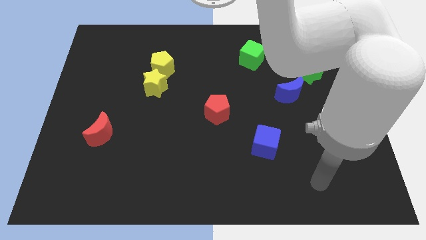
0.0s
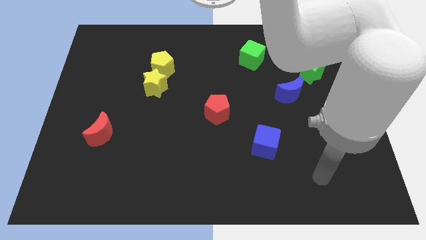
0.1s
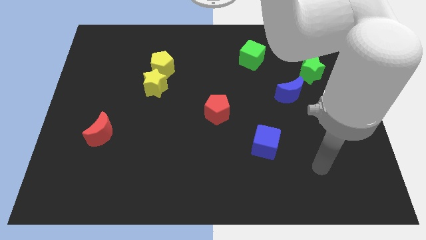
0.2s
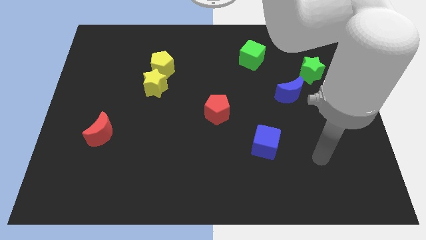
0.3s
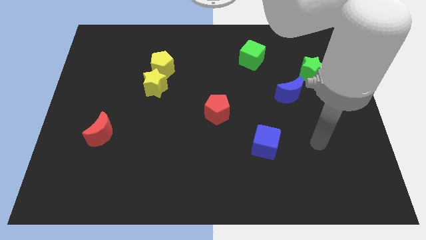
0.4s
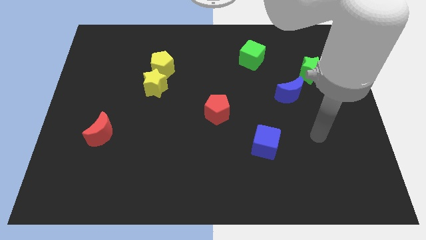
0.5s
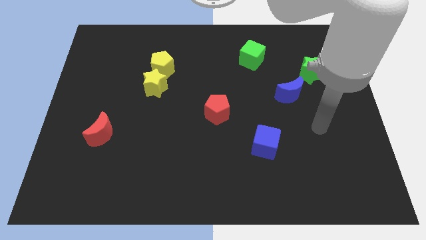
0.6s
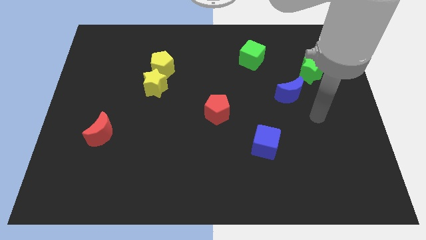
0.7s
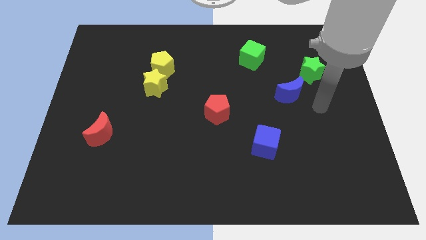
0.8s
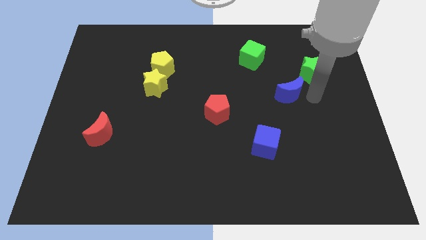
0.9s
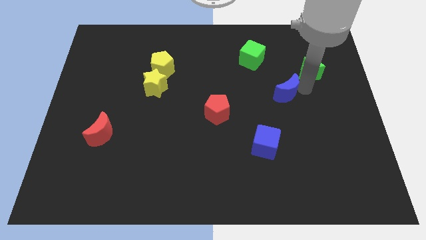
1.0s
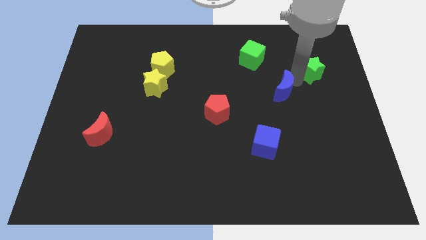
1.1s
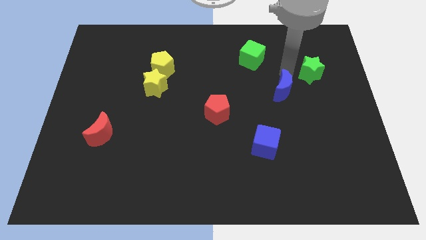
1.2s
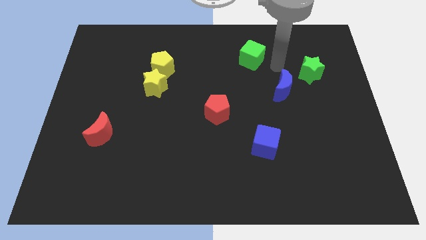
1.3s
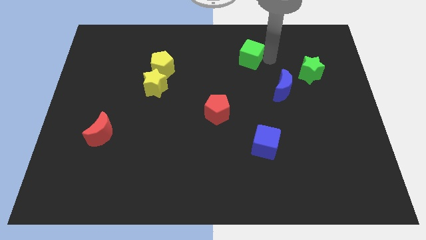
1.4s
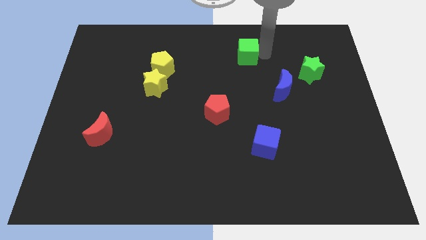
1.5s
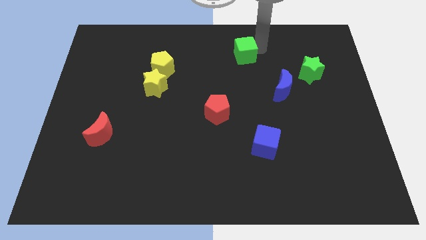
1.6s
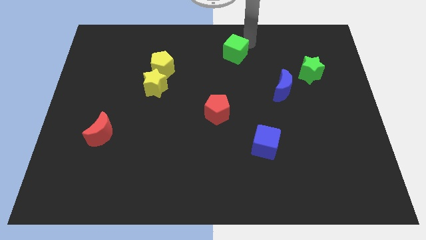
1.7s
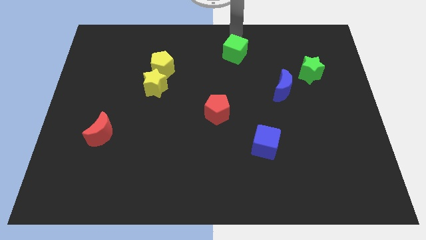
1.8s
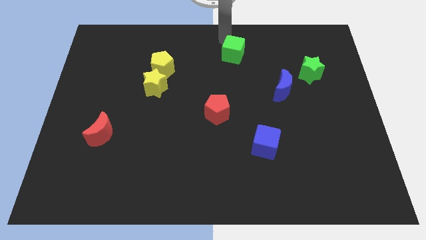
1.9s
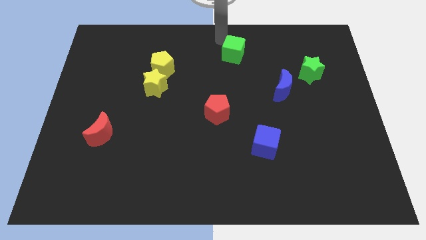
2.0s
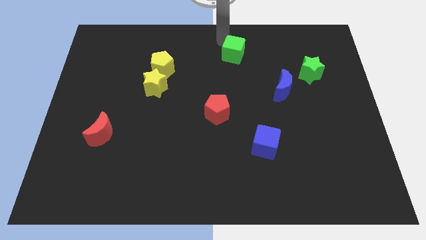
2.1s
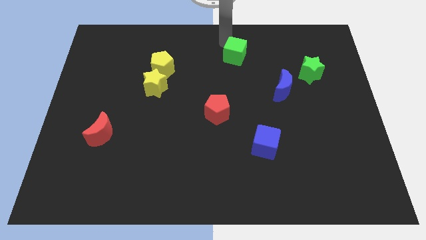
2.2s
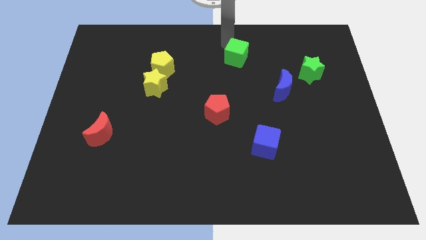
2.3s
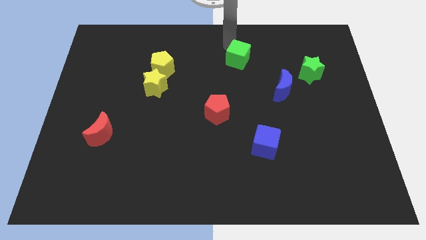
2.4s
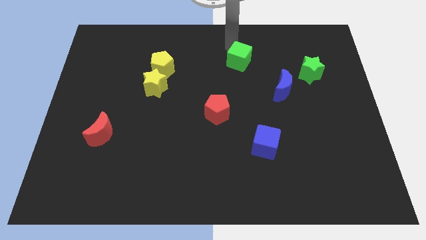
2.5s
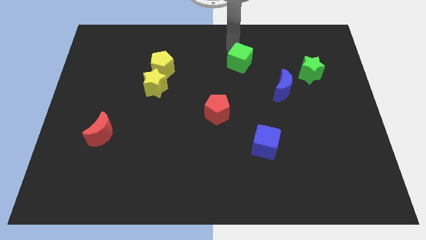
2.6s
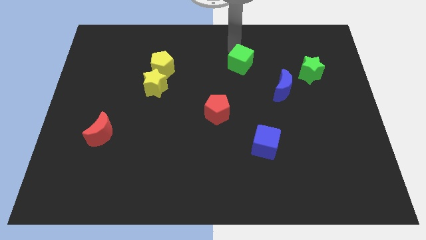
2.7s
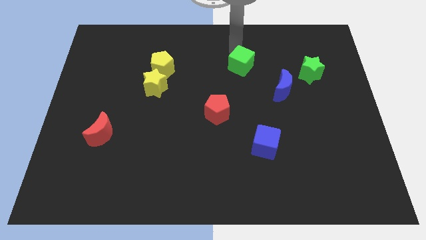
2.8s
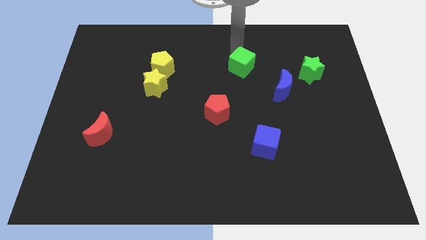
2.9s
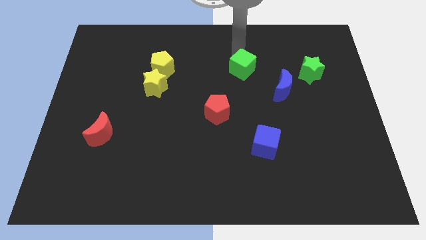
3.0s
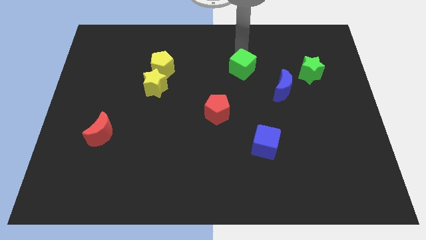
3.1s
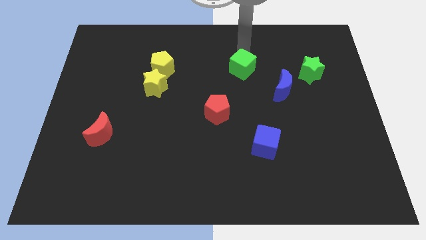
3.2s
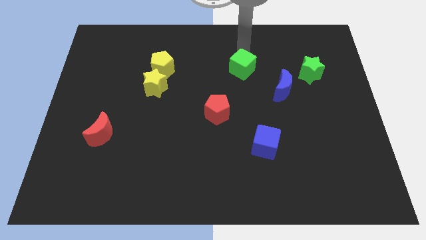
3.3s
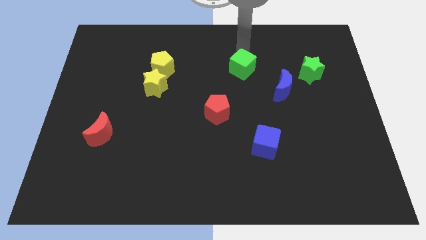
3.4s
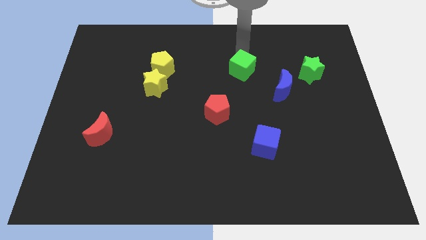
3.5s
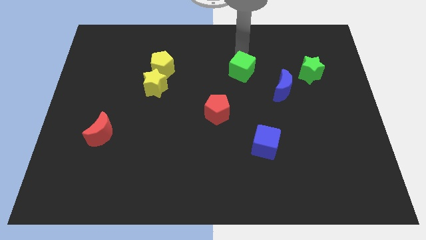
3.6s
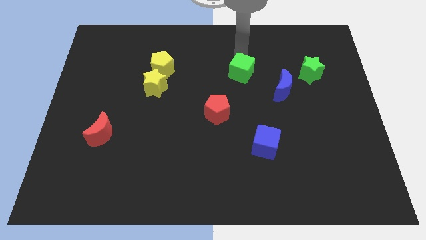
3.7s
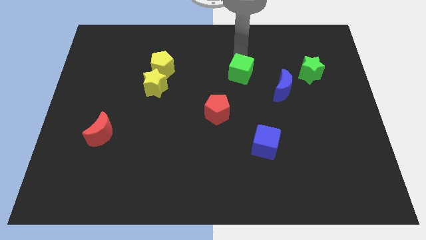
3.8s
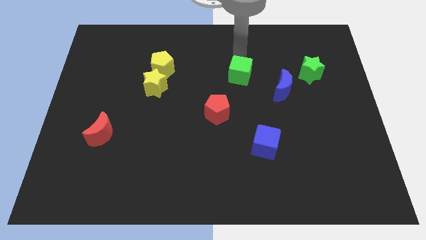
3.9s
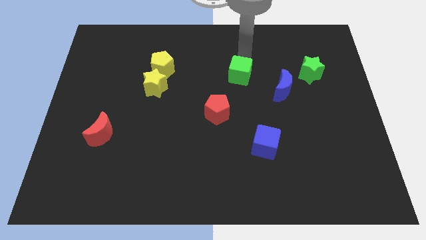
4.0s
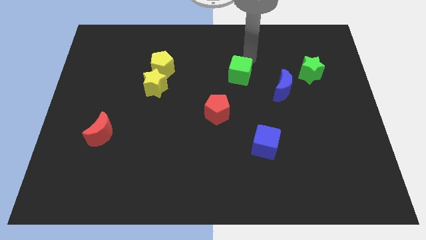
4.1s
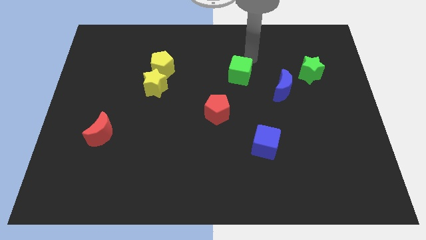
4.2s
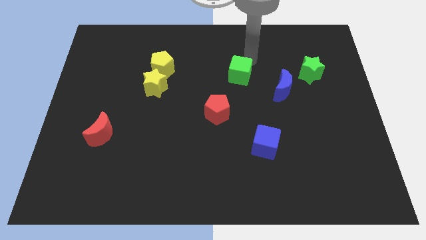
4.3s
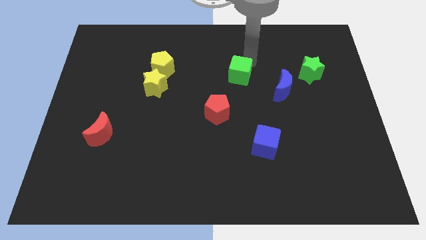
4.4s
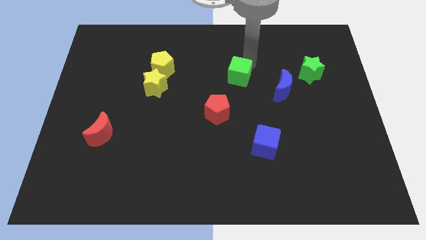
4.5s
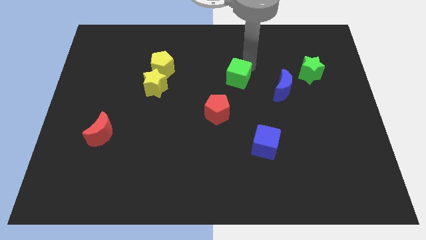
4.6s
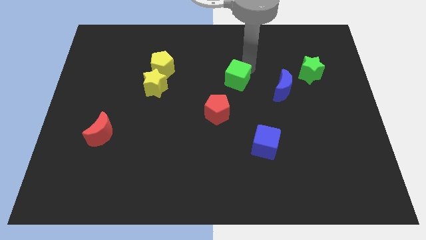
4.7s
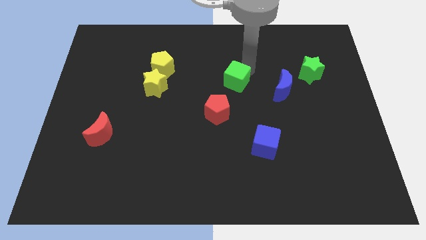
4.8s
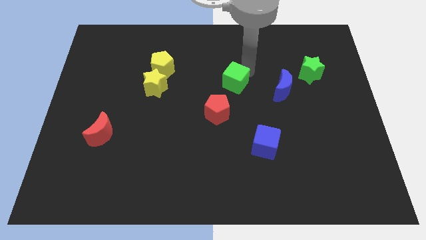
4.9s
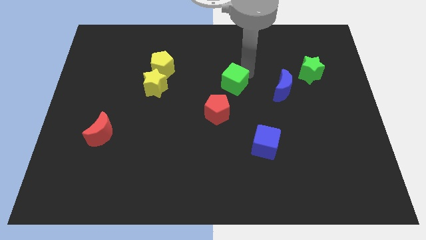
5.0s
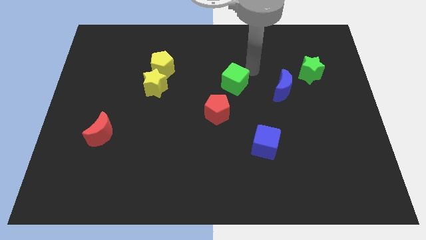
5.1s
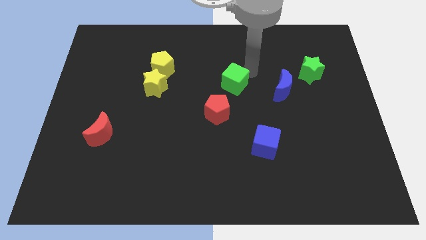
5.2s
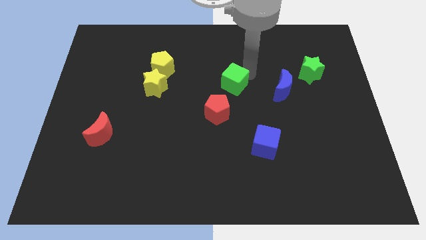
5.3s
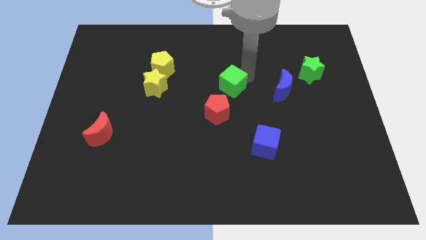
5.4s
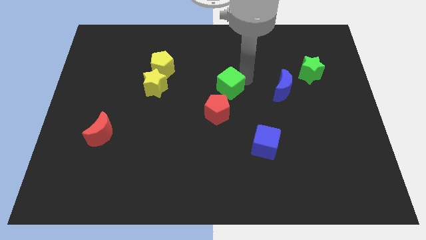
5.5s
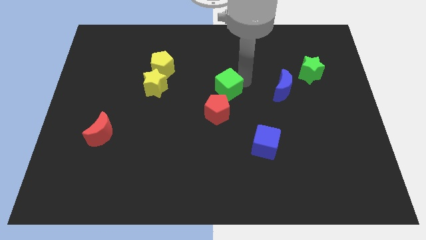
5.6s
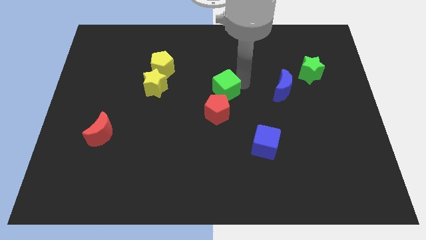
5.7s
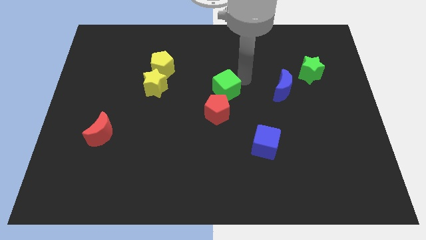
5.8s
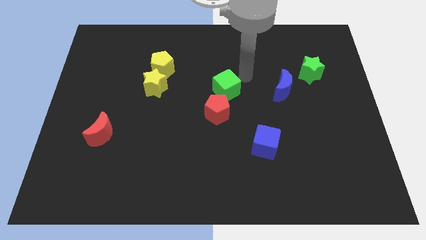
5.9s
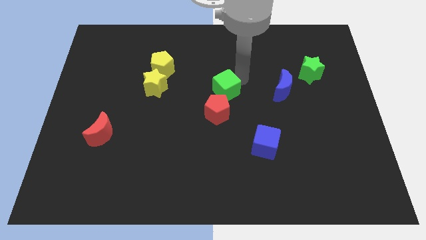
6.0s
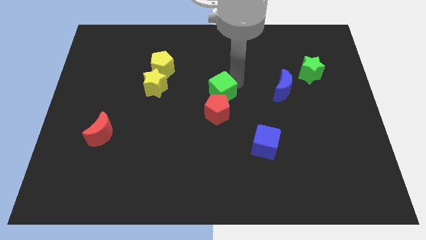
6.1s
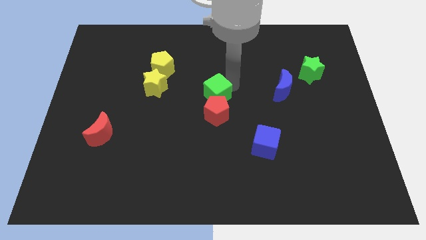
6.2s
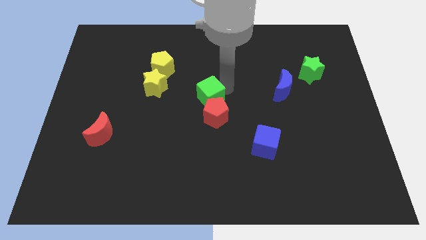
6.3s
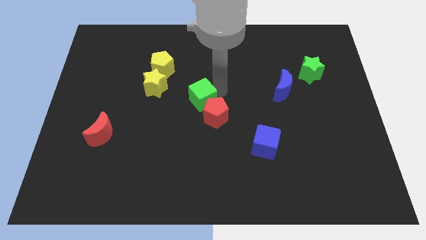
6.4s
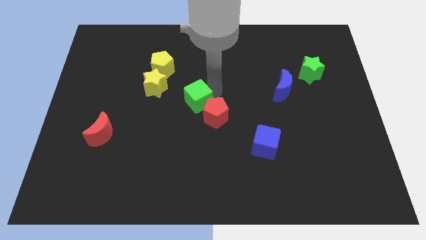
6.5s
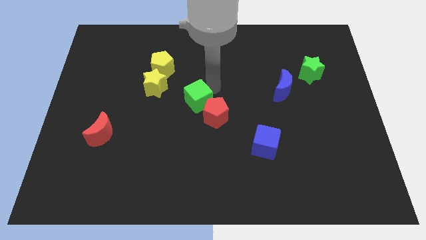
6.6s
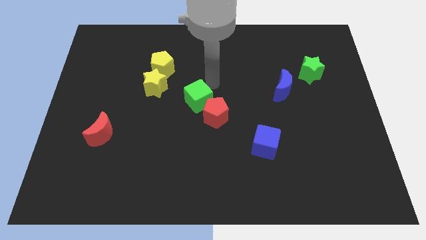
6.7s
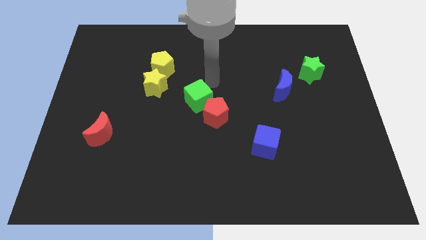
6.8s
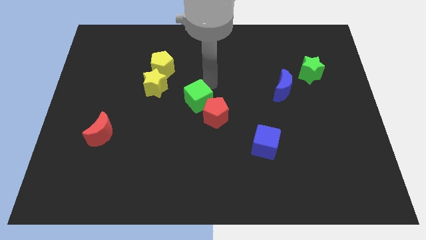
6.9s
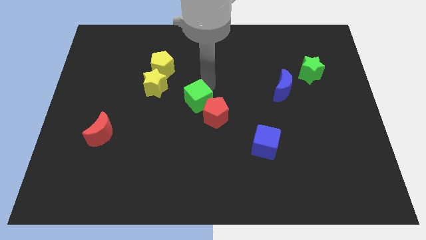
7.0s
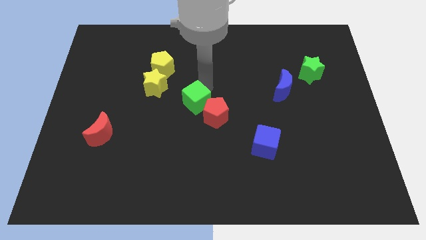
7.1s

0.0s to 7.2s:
move the green cube down and left diagonally

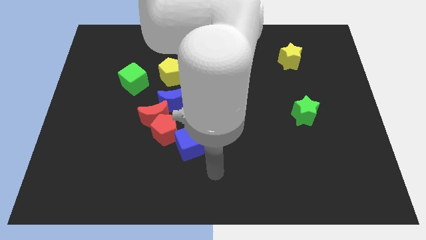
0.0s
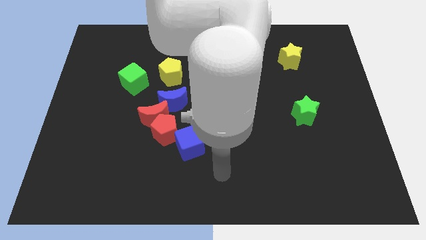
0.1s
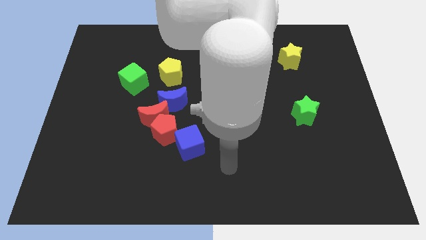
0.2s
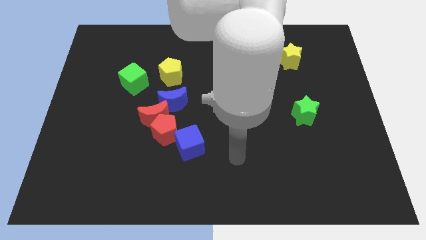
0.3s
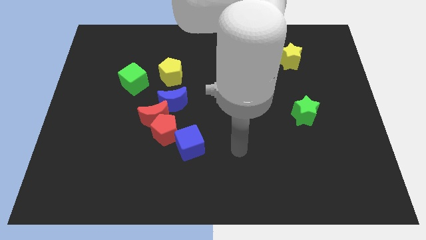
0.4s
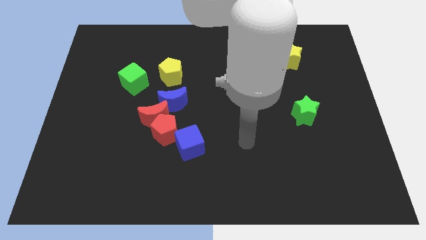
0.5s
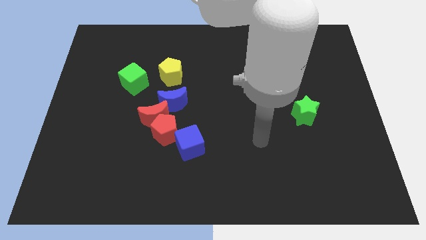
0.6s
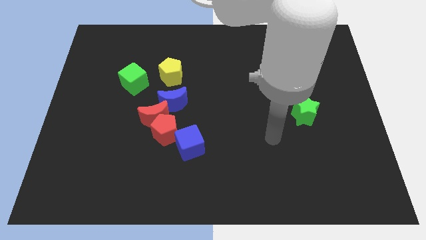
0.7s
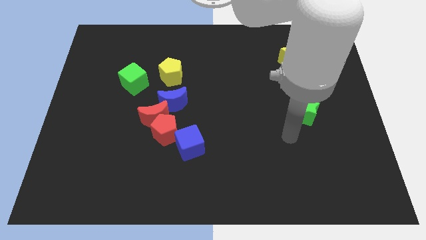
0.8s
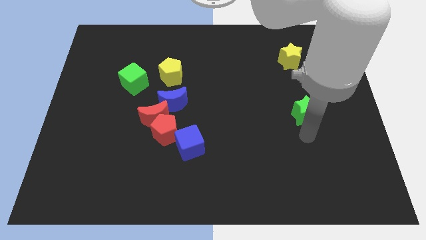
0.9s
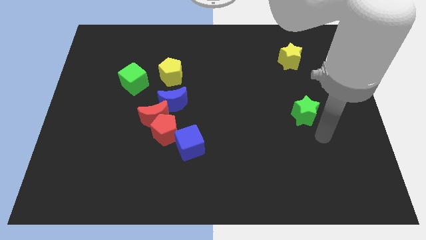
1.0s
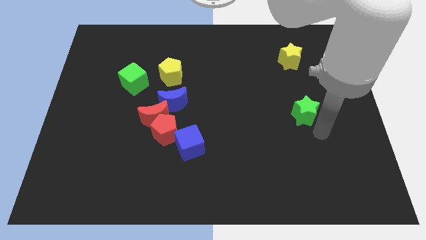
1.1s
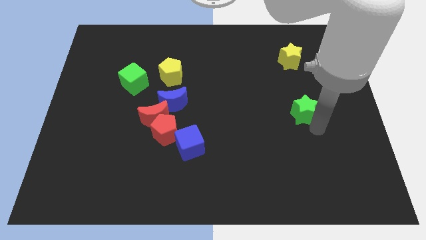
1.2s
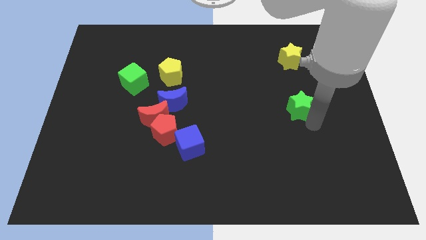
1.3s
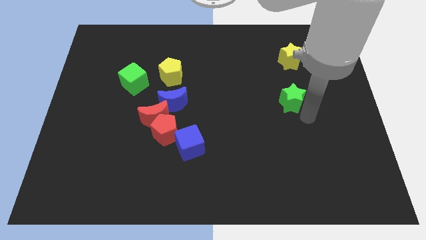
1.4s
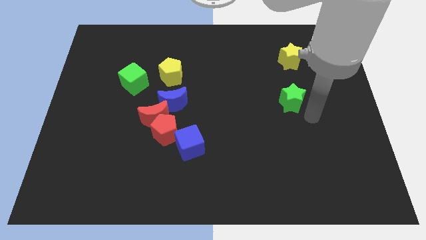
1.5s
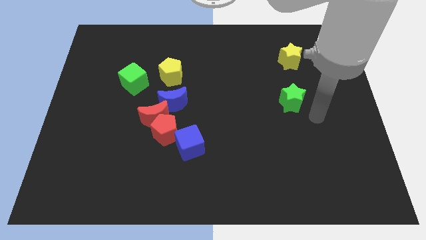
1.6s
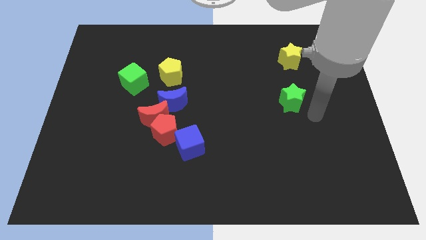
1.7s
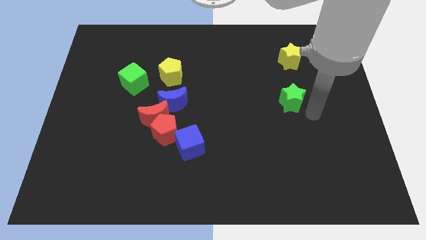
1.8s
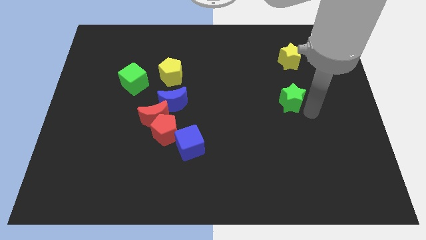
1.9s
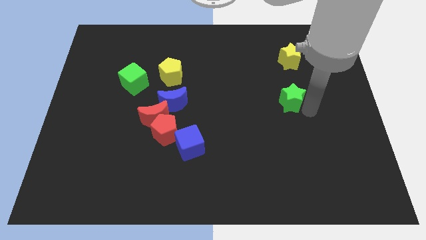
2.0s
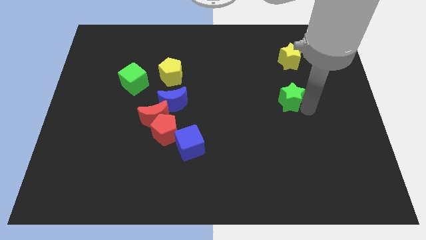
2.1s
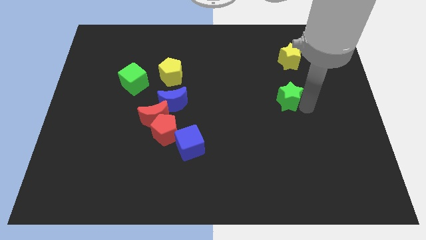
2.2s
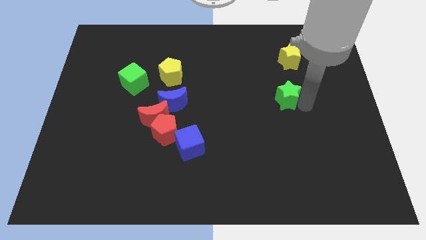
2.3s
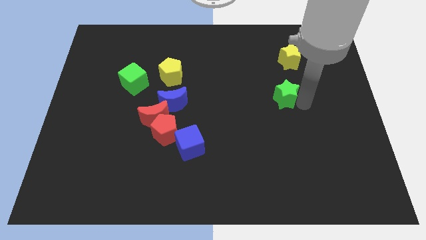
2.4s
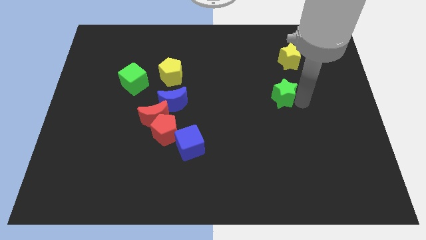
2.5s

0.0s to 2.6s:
push the green star up and left somewhat
